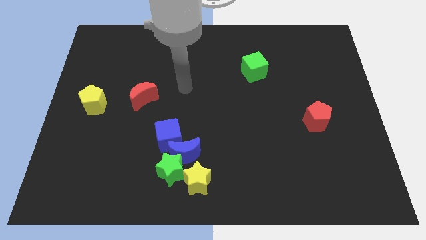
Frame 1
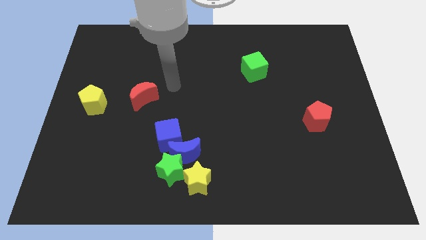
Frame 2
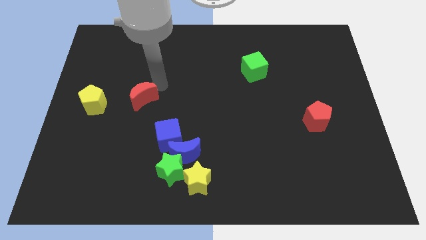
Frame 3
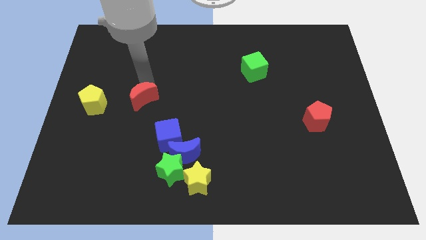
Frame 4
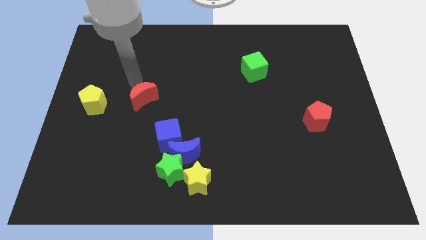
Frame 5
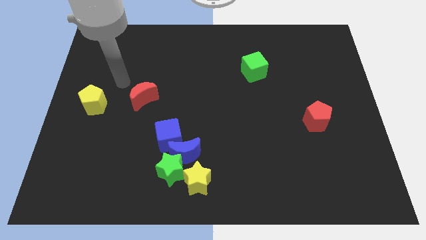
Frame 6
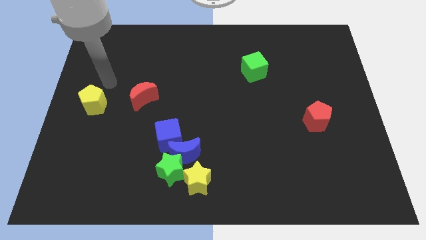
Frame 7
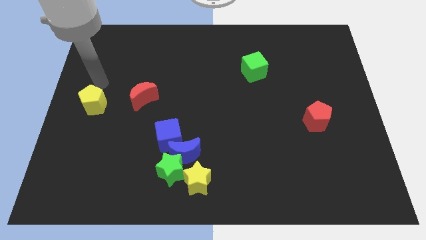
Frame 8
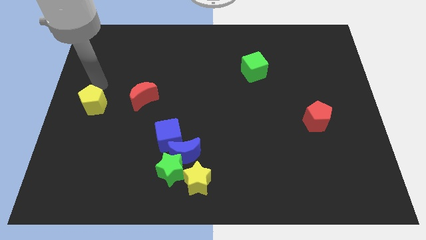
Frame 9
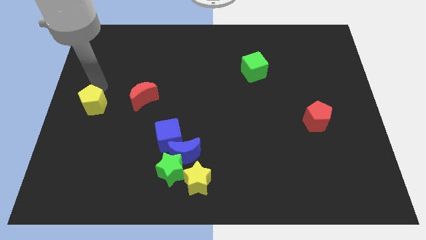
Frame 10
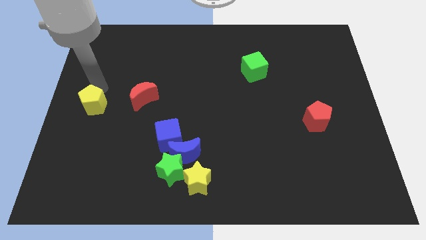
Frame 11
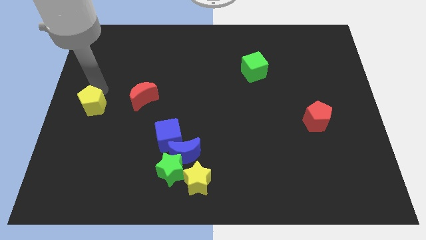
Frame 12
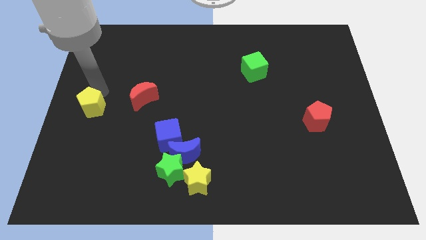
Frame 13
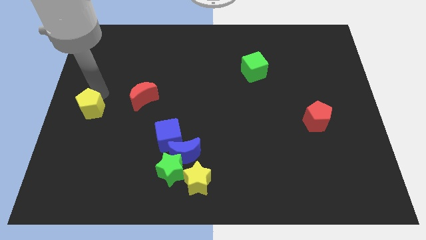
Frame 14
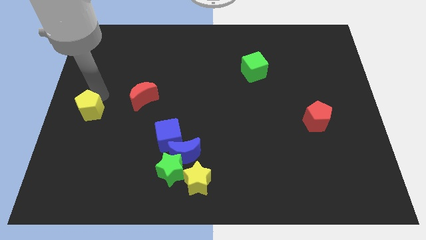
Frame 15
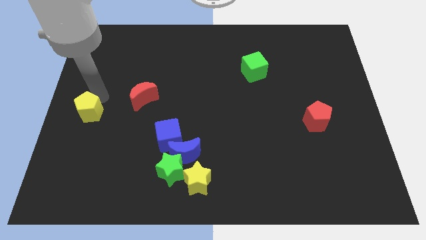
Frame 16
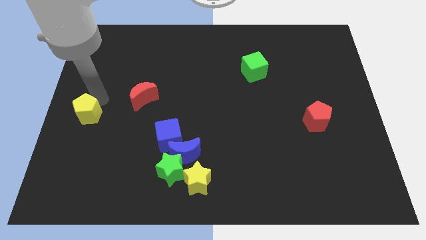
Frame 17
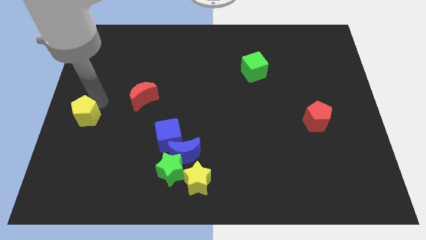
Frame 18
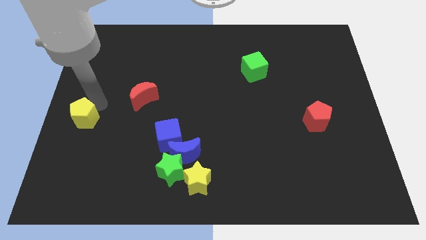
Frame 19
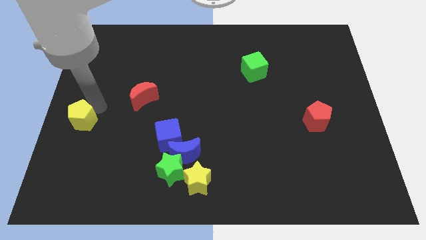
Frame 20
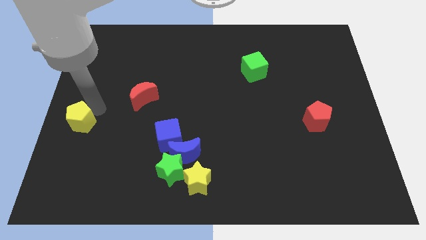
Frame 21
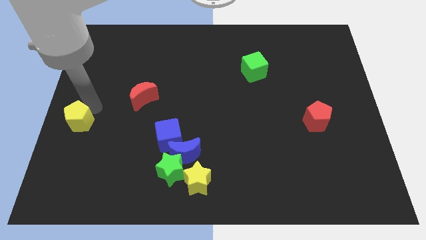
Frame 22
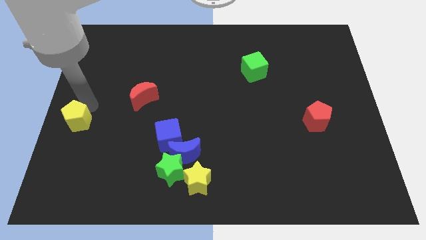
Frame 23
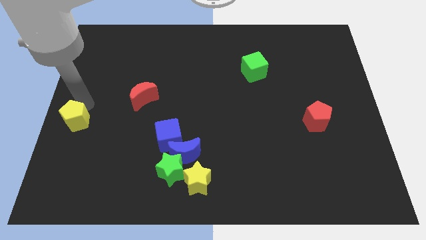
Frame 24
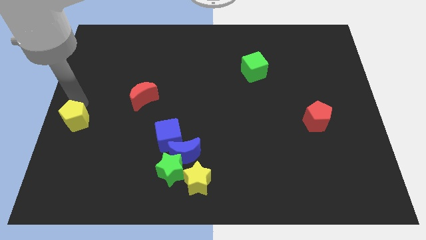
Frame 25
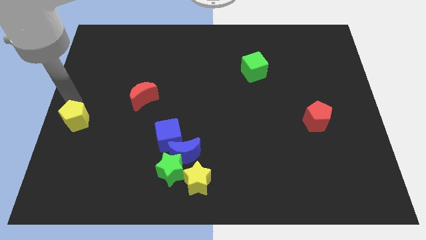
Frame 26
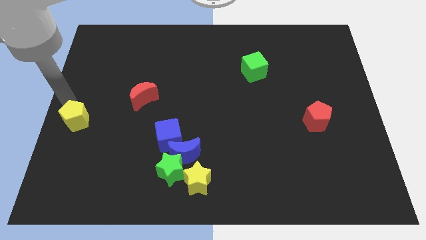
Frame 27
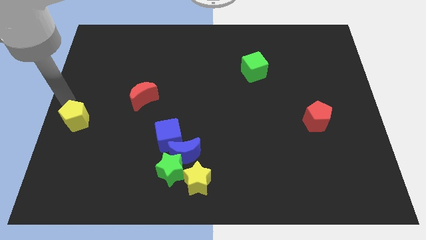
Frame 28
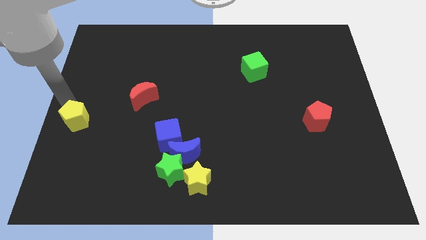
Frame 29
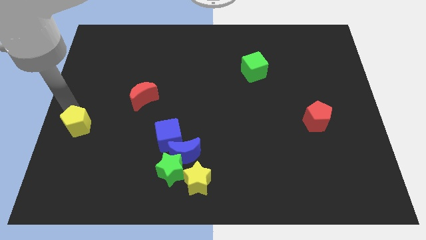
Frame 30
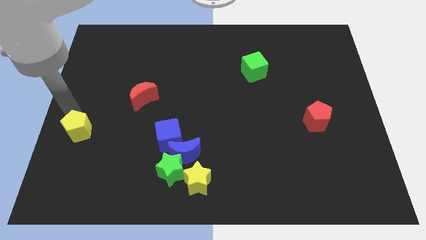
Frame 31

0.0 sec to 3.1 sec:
push the yellow pentagon downwards slightly

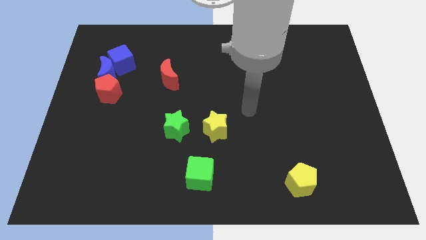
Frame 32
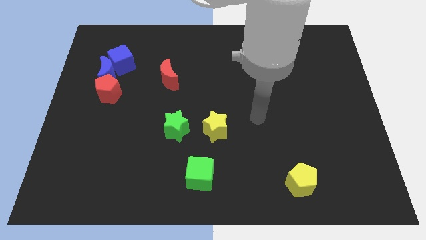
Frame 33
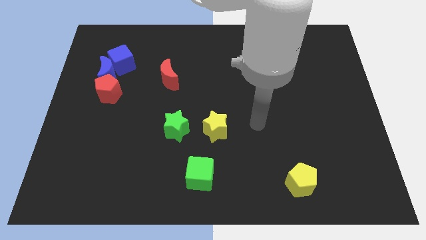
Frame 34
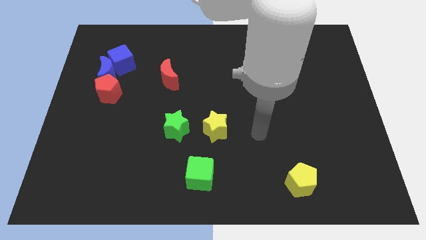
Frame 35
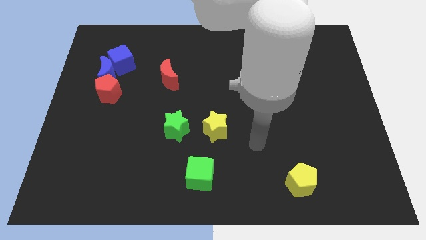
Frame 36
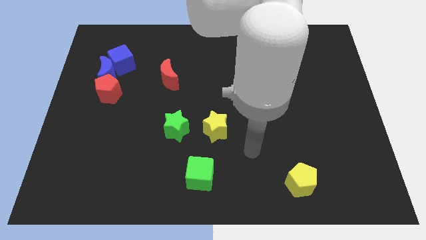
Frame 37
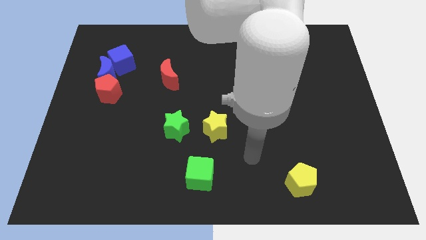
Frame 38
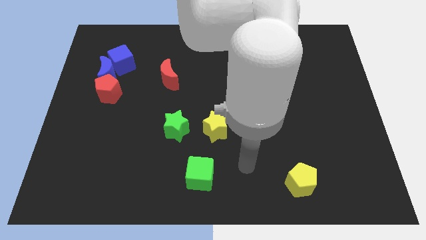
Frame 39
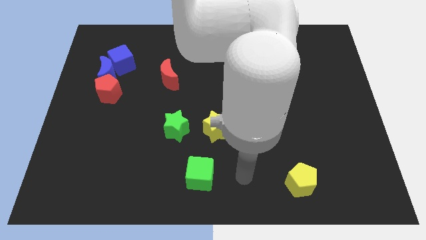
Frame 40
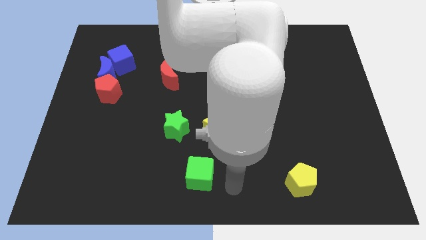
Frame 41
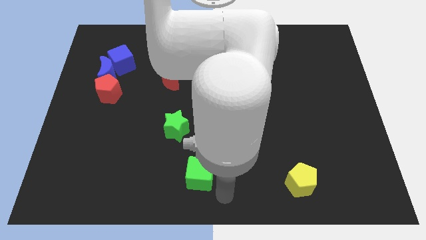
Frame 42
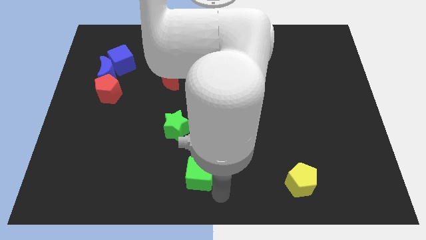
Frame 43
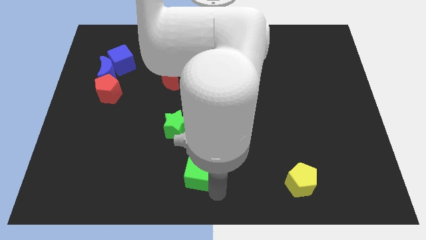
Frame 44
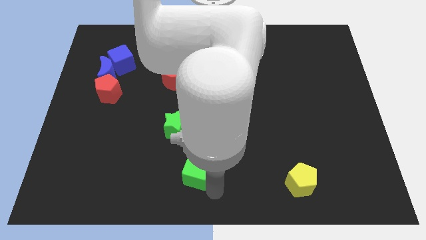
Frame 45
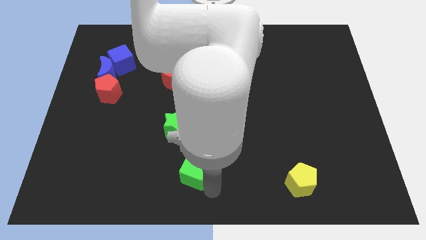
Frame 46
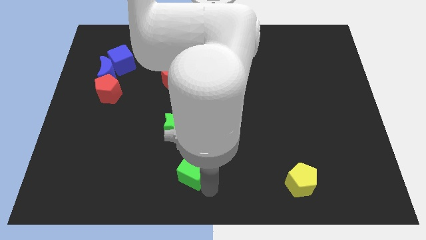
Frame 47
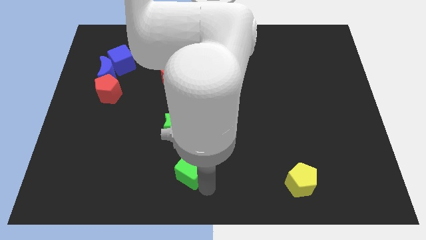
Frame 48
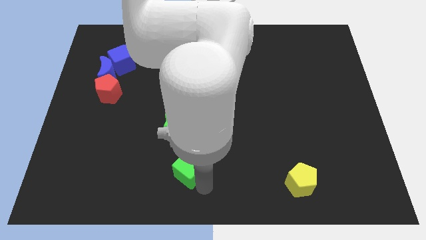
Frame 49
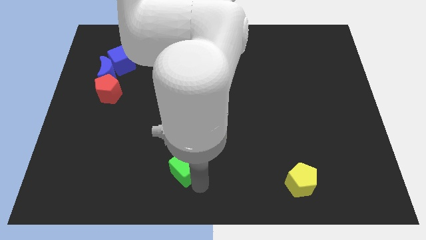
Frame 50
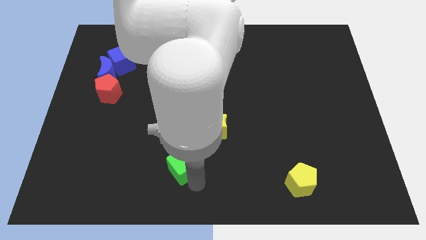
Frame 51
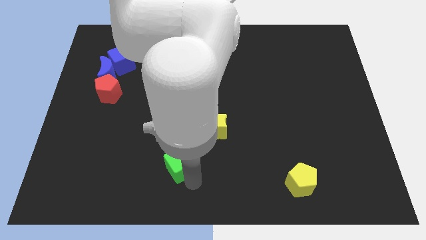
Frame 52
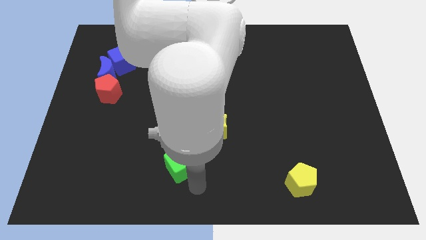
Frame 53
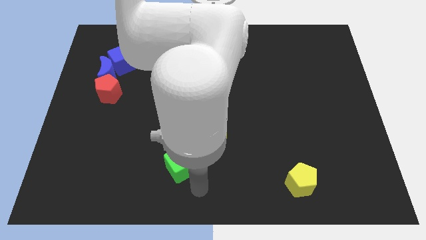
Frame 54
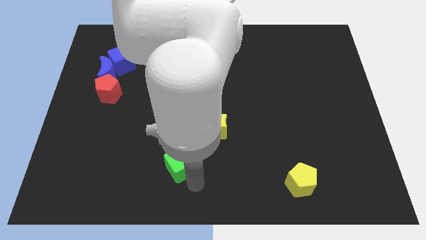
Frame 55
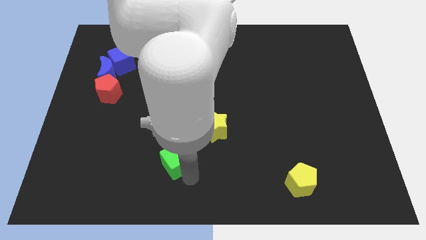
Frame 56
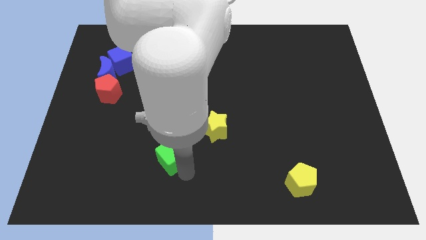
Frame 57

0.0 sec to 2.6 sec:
move the green cube a bit upwards and left

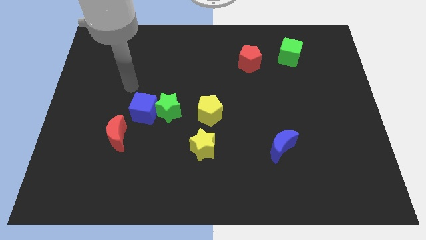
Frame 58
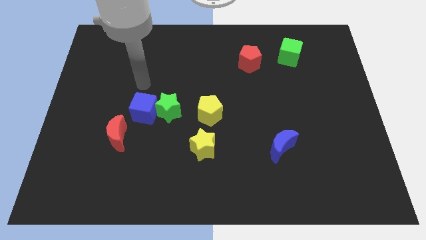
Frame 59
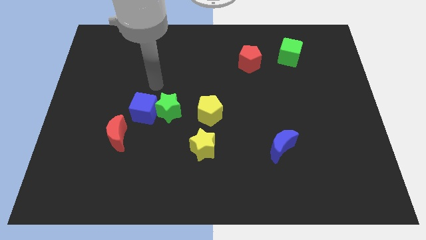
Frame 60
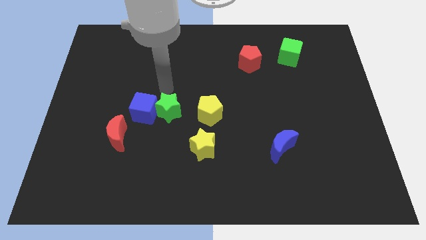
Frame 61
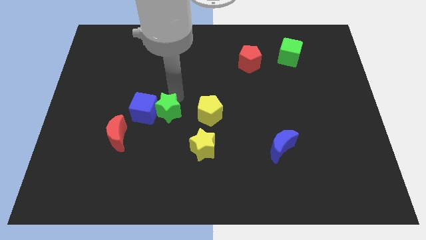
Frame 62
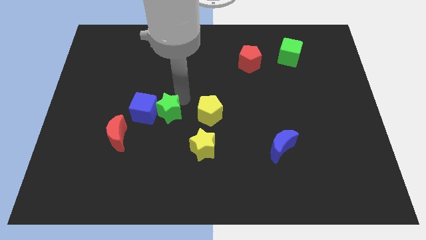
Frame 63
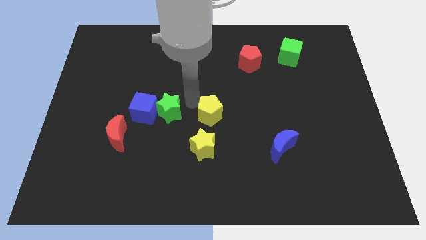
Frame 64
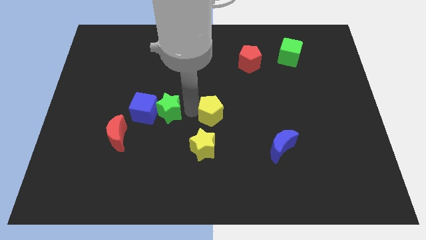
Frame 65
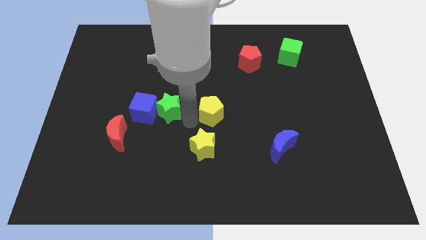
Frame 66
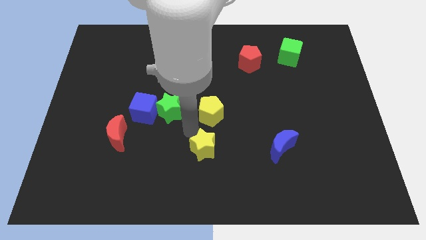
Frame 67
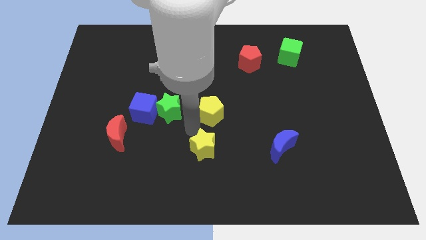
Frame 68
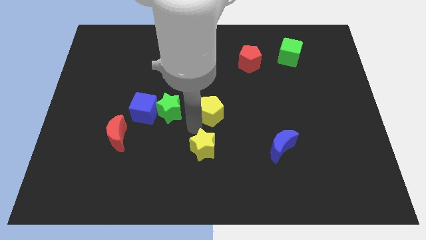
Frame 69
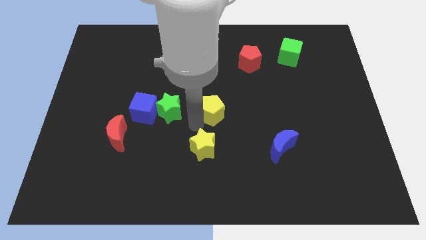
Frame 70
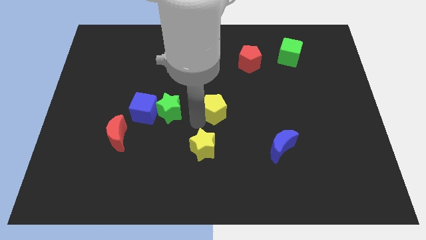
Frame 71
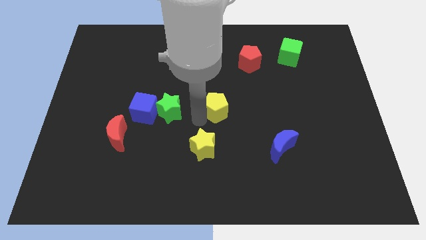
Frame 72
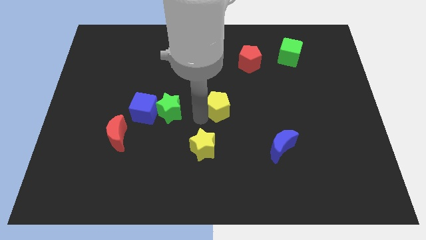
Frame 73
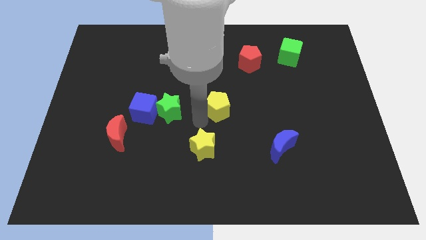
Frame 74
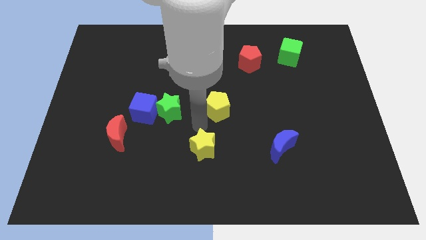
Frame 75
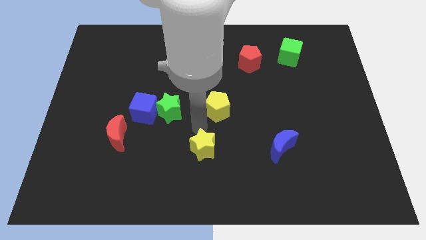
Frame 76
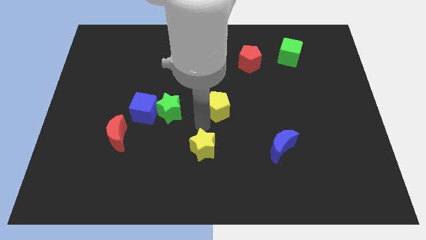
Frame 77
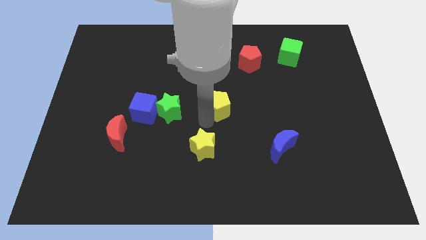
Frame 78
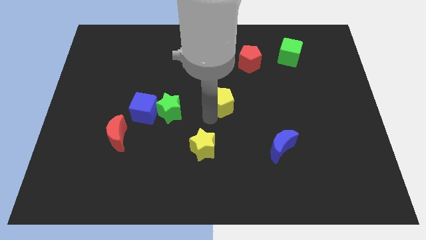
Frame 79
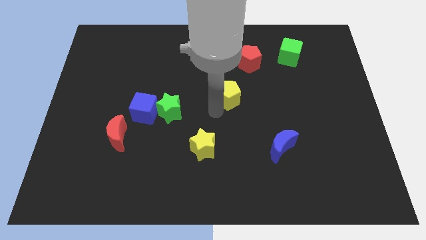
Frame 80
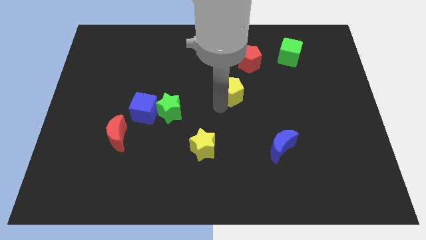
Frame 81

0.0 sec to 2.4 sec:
move the yellow pentagon upwards and to the right diagonally somewhat

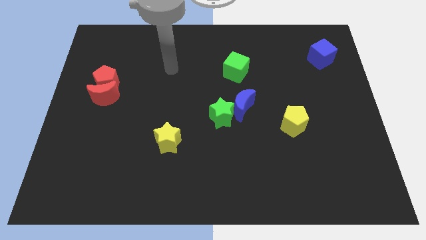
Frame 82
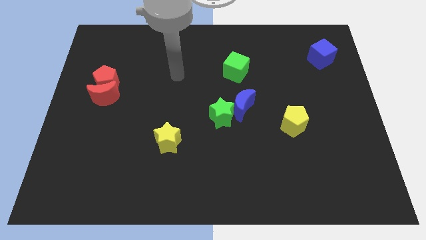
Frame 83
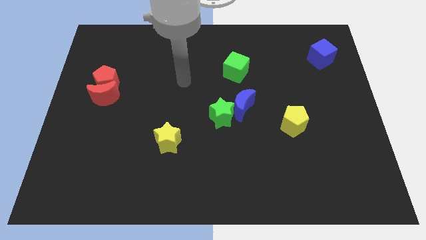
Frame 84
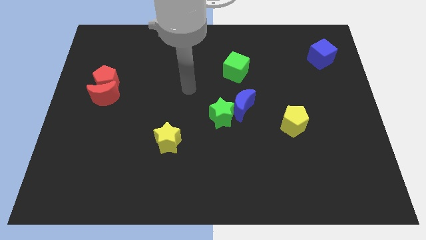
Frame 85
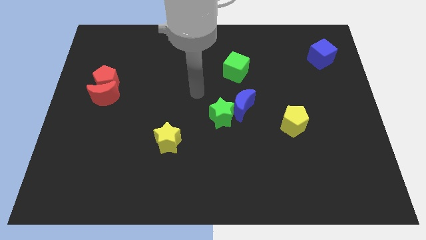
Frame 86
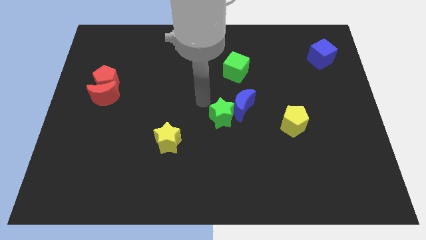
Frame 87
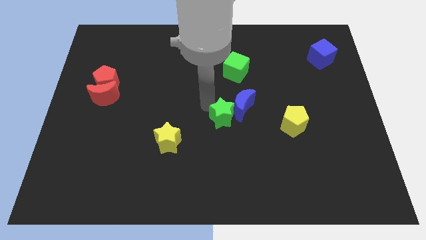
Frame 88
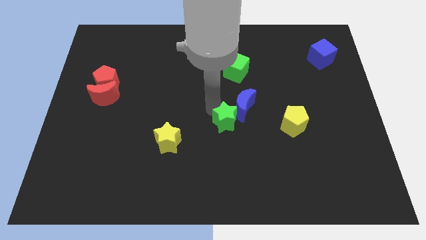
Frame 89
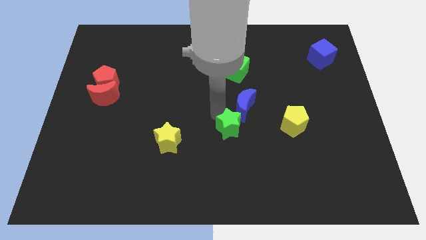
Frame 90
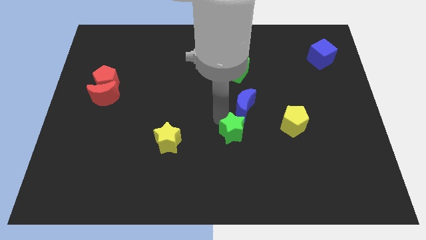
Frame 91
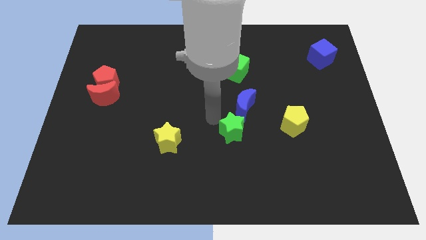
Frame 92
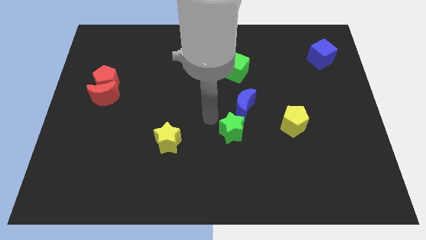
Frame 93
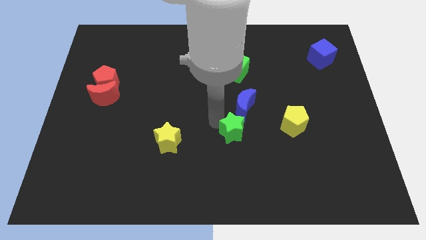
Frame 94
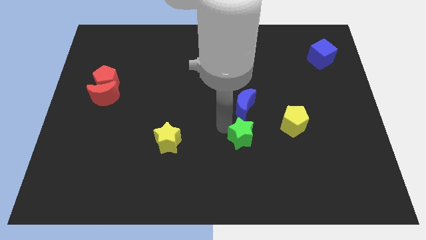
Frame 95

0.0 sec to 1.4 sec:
push the green star downwards and then to the right a little
